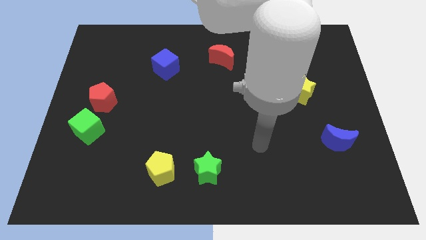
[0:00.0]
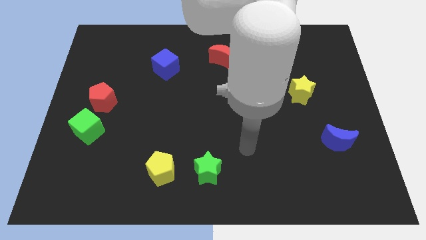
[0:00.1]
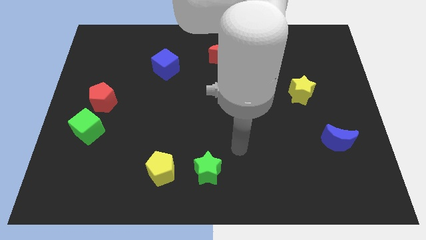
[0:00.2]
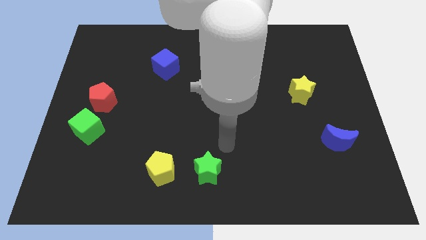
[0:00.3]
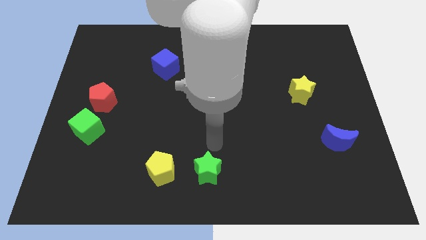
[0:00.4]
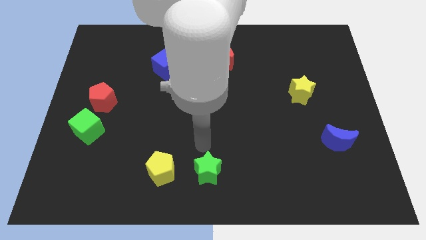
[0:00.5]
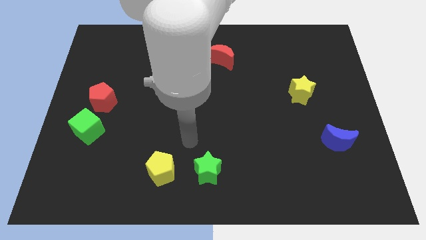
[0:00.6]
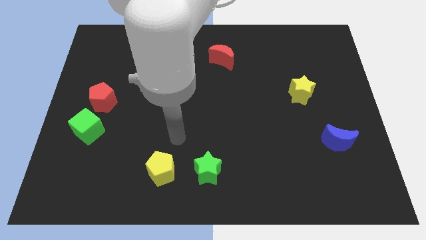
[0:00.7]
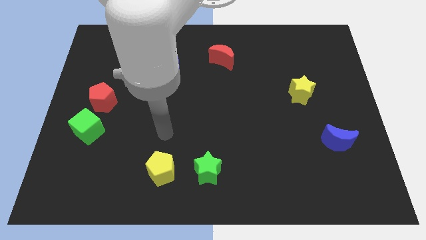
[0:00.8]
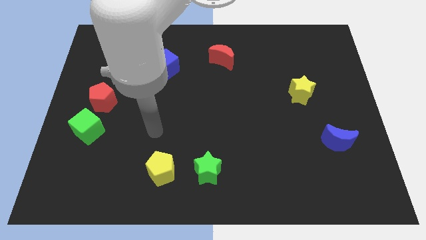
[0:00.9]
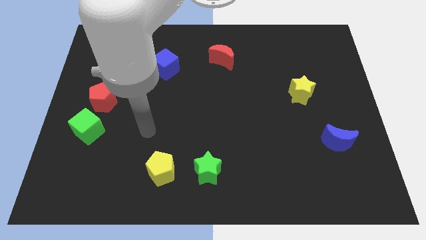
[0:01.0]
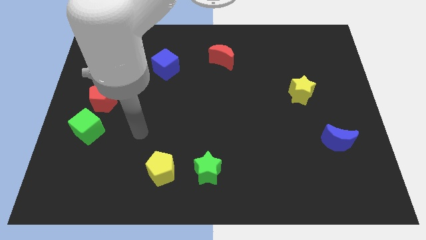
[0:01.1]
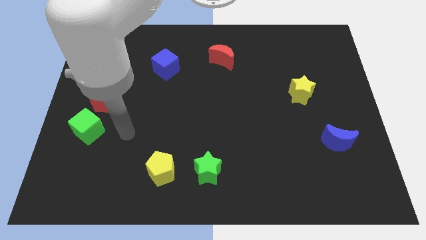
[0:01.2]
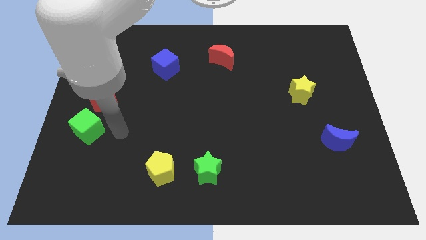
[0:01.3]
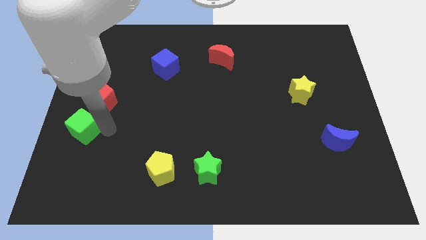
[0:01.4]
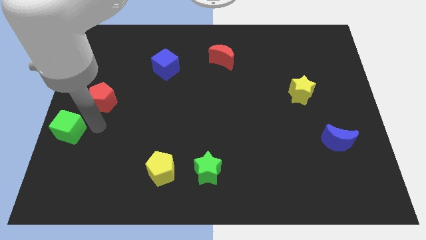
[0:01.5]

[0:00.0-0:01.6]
separate the red pentagon from the green cube

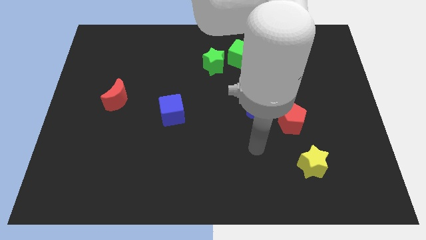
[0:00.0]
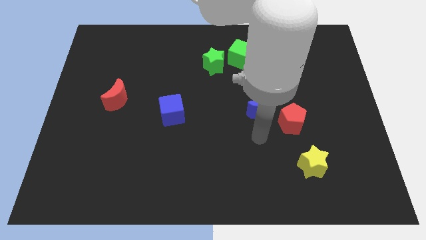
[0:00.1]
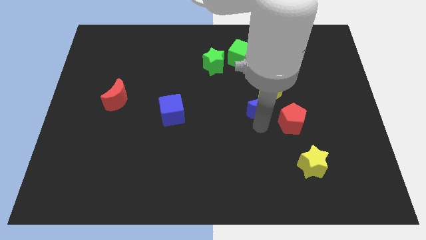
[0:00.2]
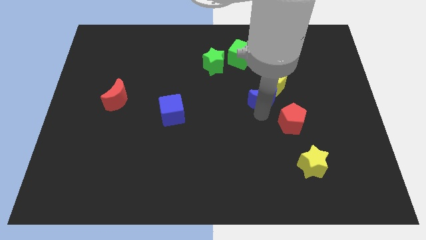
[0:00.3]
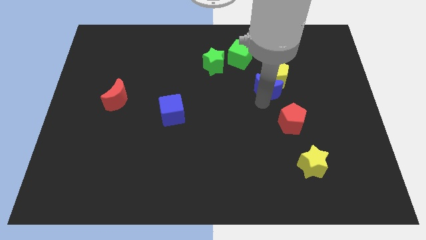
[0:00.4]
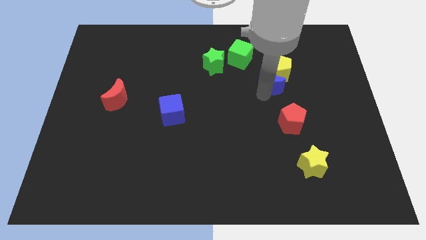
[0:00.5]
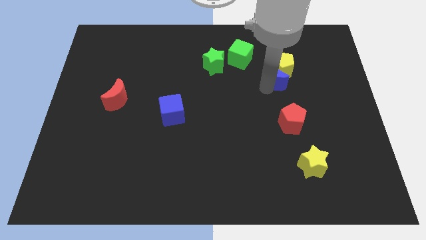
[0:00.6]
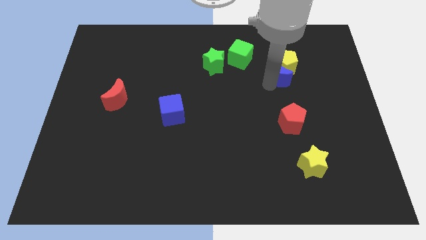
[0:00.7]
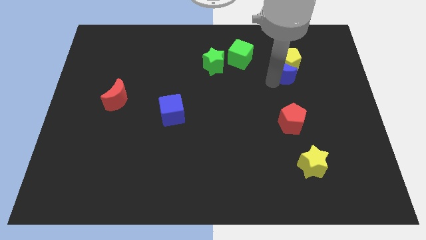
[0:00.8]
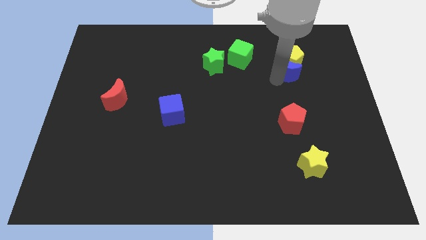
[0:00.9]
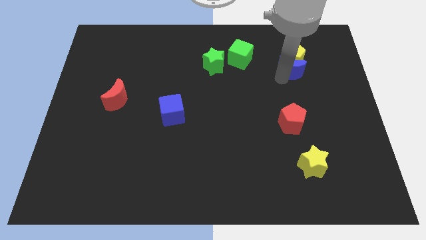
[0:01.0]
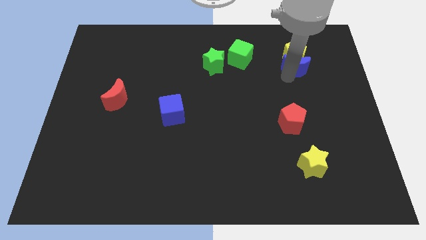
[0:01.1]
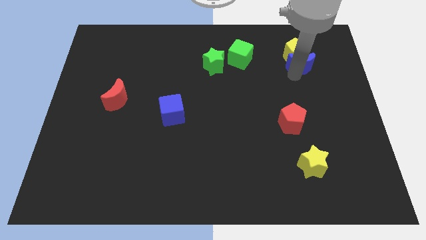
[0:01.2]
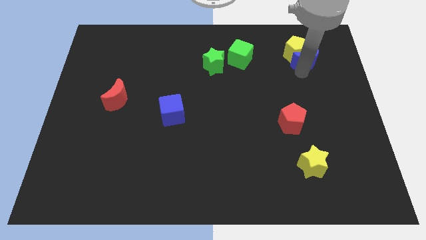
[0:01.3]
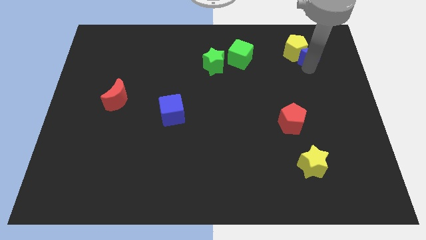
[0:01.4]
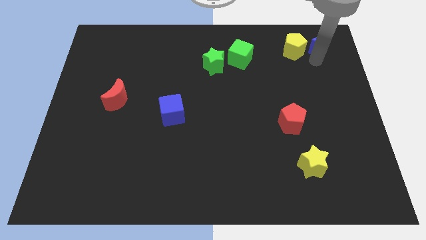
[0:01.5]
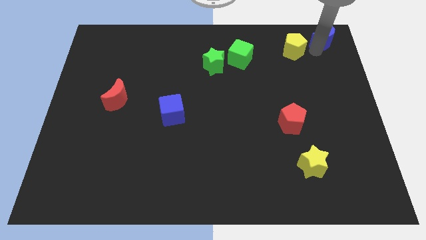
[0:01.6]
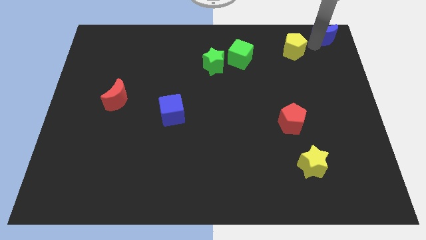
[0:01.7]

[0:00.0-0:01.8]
pull the yellow pentagon apart from the blue moon

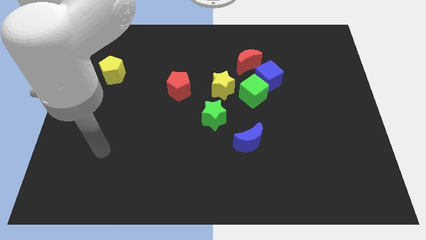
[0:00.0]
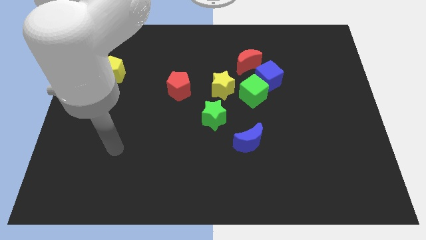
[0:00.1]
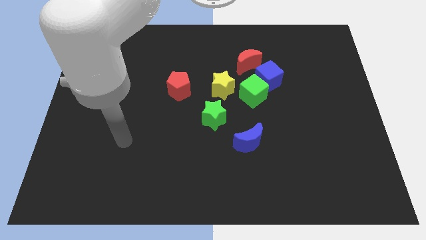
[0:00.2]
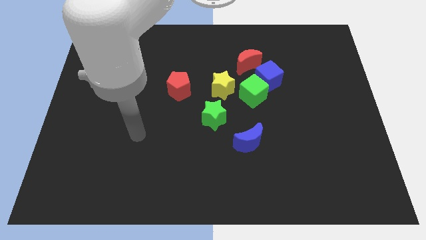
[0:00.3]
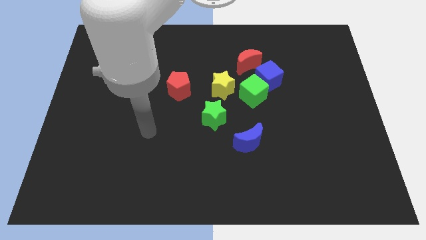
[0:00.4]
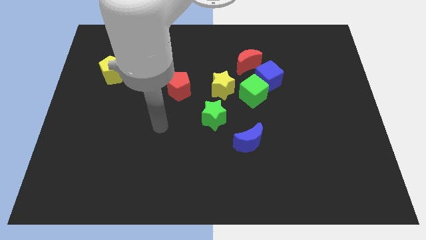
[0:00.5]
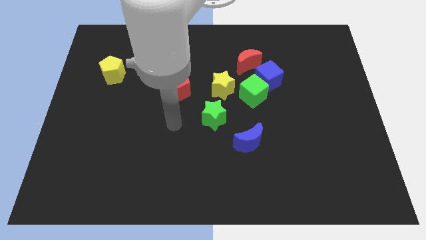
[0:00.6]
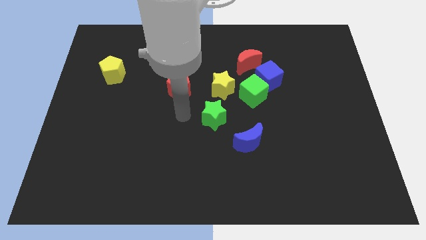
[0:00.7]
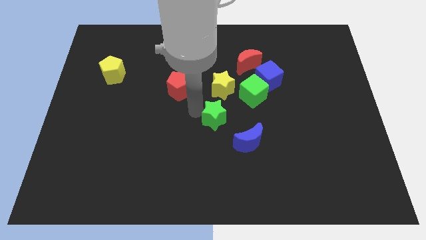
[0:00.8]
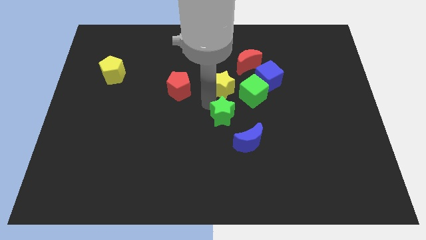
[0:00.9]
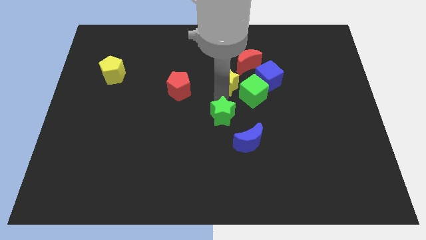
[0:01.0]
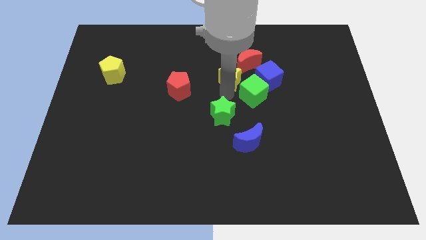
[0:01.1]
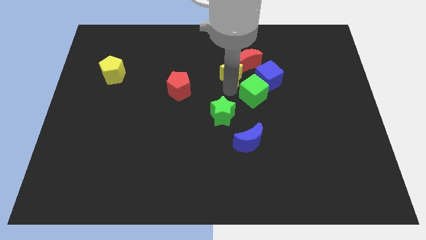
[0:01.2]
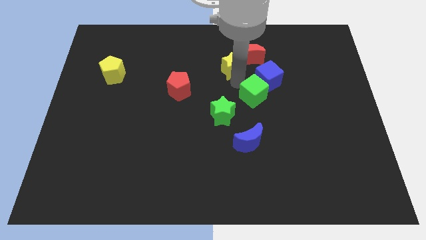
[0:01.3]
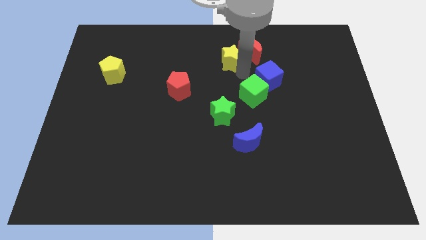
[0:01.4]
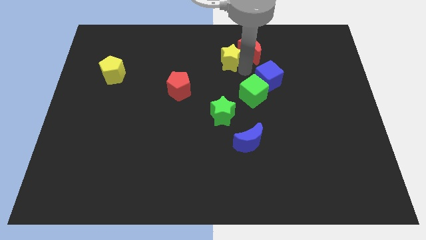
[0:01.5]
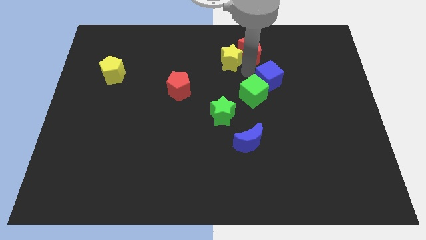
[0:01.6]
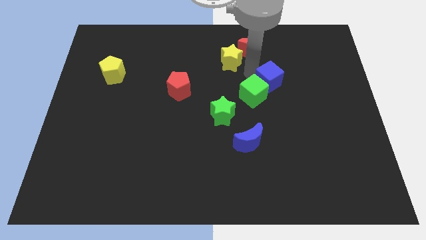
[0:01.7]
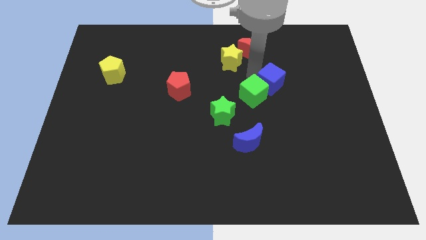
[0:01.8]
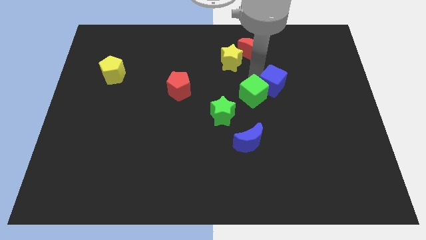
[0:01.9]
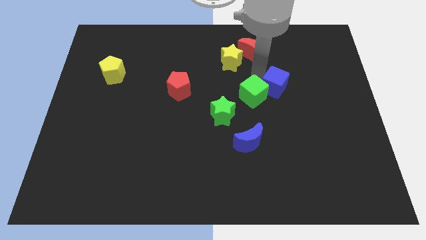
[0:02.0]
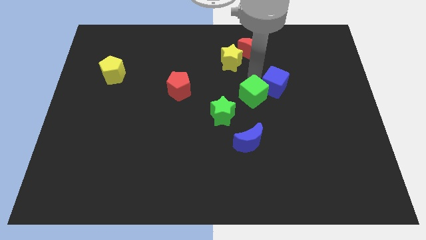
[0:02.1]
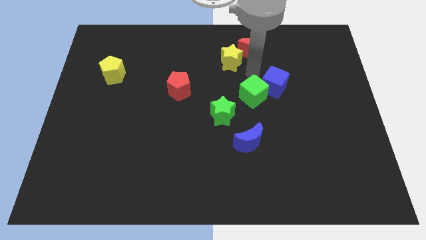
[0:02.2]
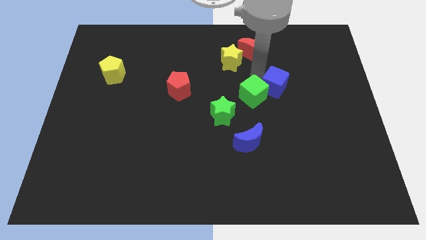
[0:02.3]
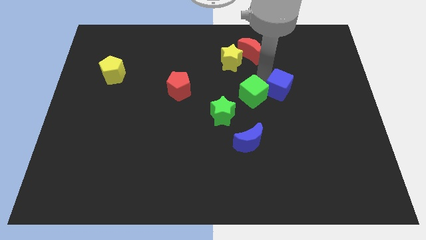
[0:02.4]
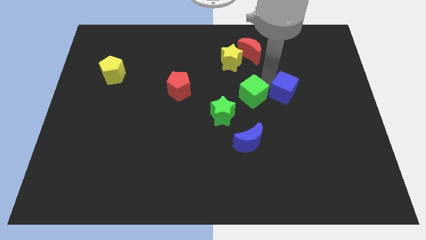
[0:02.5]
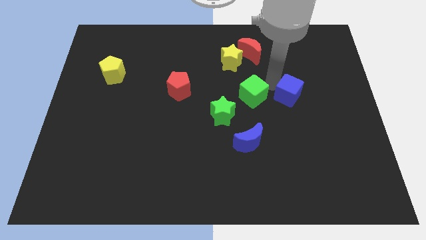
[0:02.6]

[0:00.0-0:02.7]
move the blue cube away from the green cube and red moon

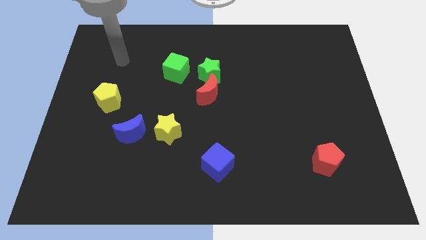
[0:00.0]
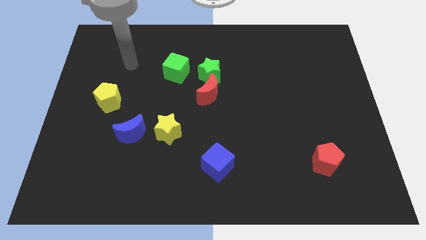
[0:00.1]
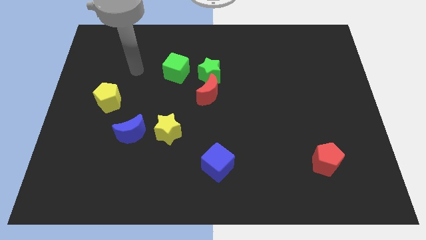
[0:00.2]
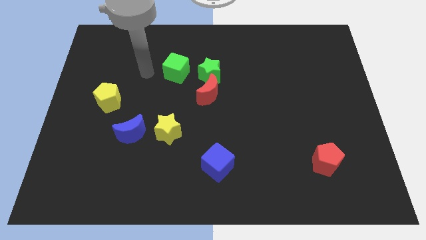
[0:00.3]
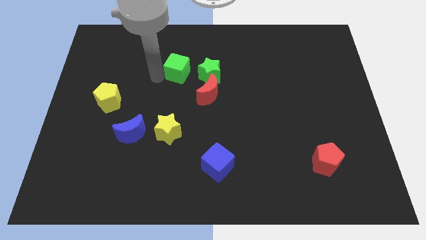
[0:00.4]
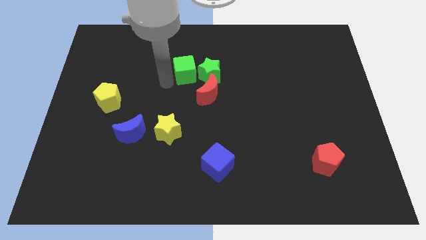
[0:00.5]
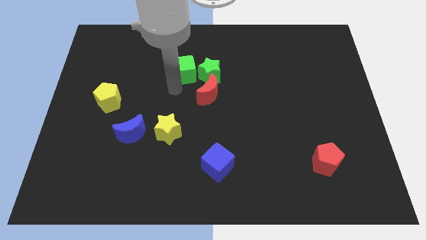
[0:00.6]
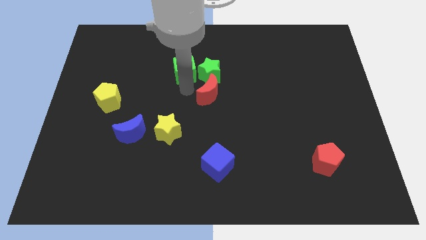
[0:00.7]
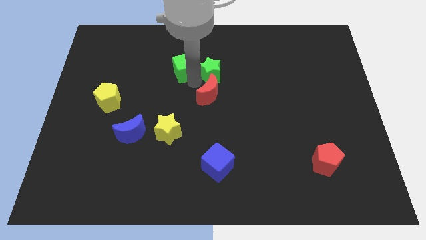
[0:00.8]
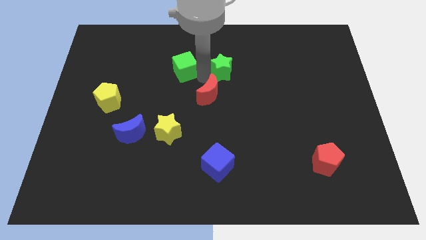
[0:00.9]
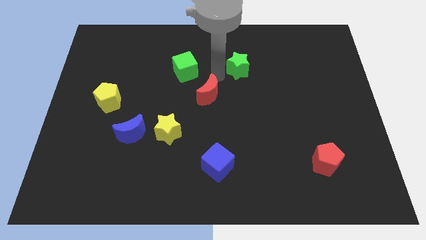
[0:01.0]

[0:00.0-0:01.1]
pull the red moon apart from the green star

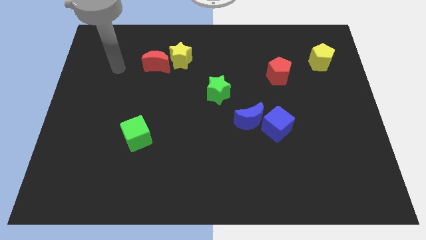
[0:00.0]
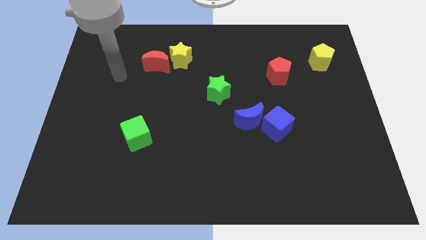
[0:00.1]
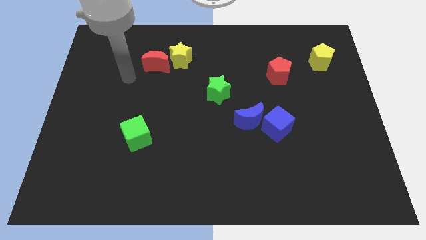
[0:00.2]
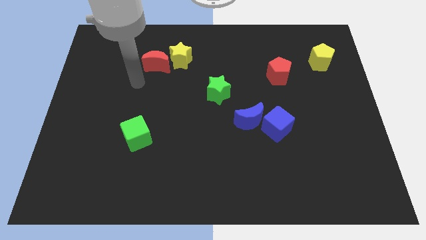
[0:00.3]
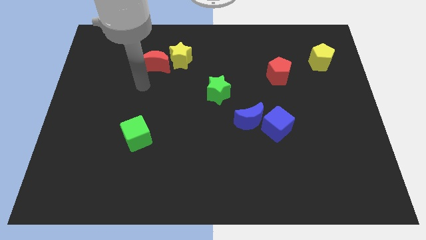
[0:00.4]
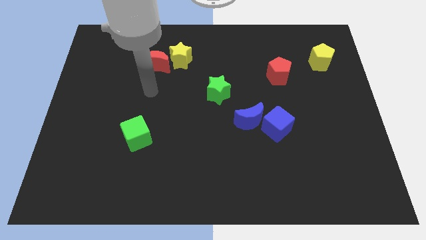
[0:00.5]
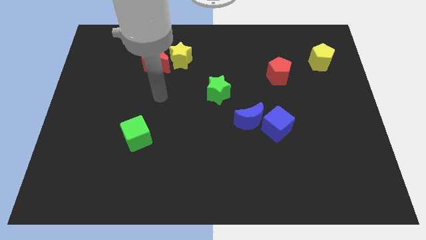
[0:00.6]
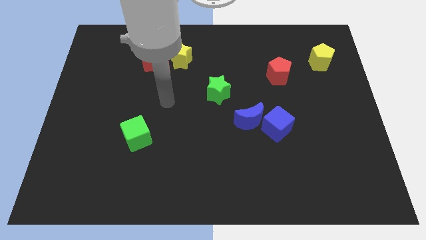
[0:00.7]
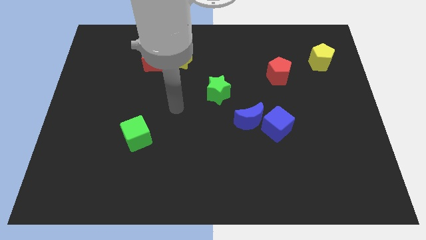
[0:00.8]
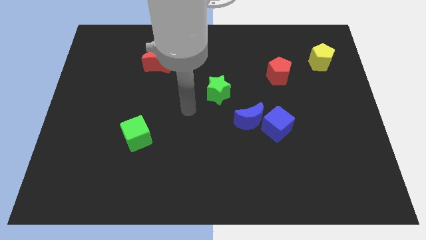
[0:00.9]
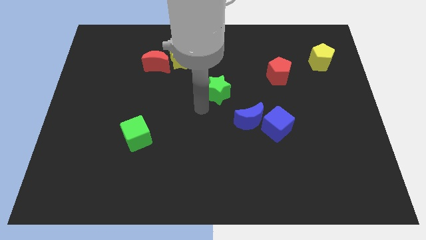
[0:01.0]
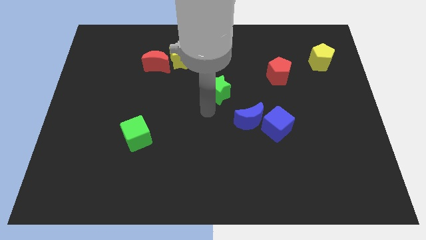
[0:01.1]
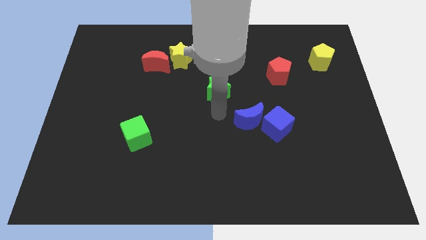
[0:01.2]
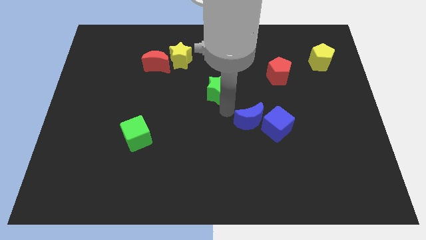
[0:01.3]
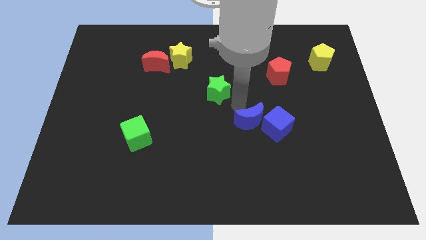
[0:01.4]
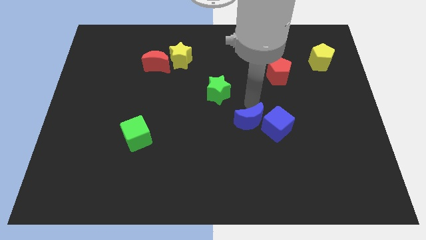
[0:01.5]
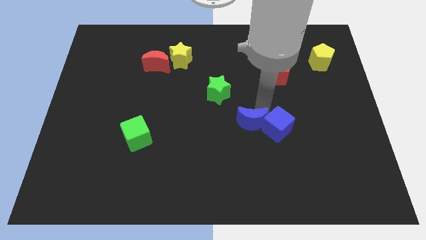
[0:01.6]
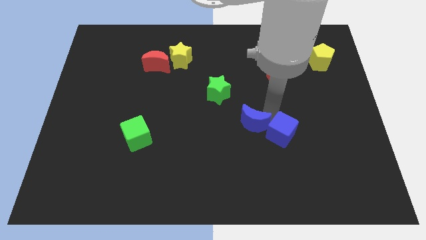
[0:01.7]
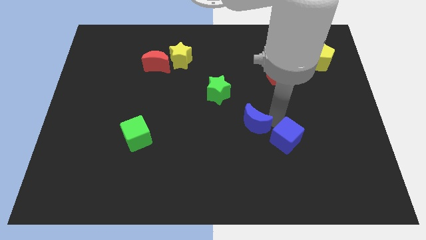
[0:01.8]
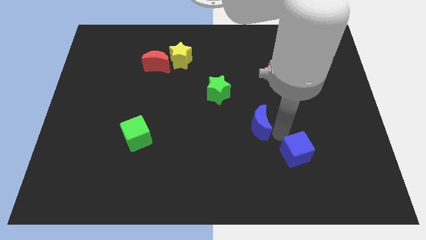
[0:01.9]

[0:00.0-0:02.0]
separate the blue moon from the blue cube
